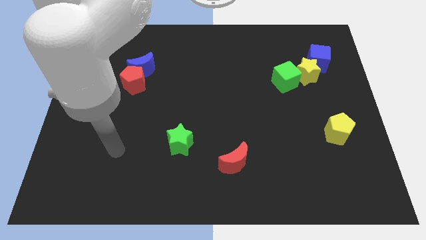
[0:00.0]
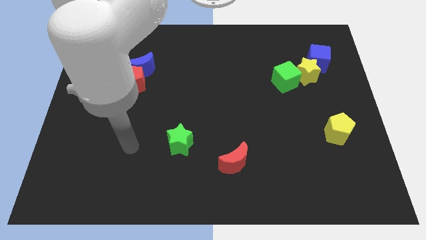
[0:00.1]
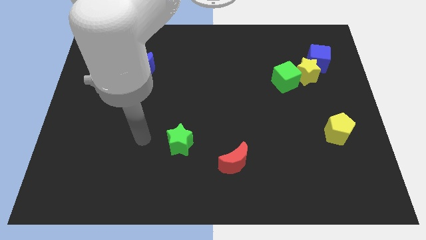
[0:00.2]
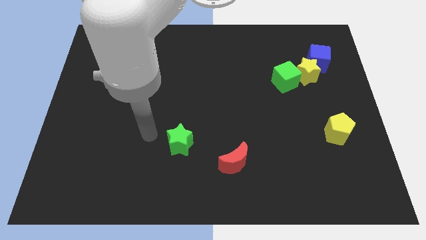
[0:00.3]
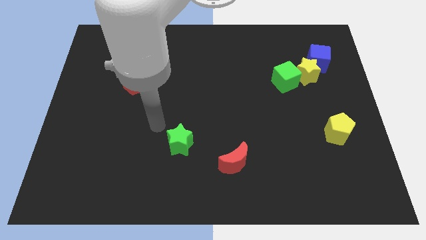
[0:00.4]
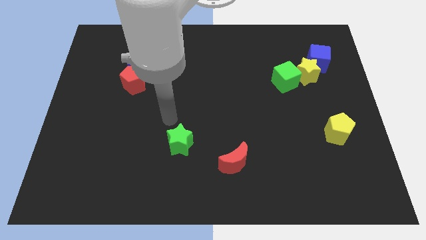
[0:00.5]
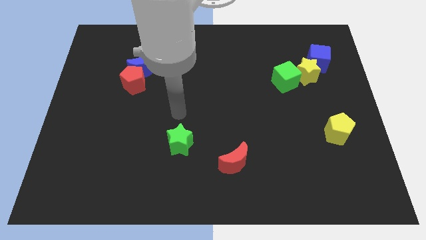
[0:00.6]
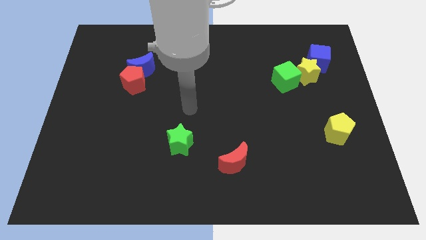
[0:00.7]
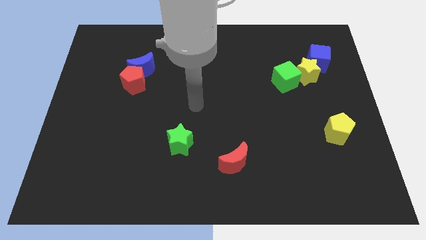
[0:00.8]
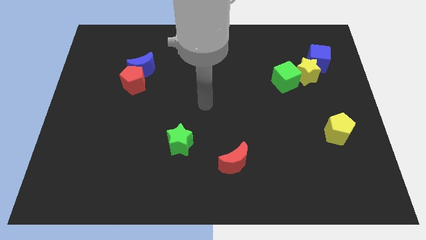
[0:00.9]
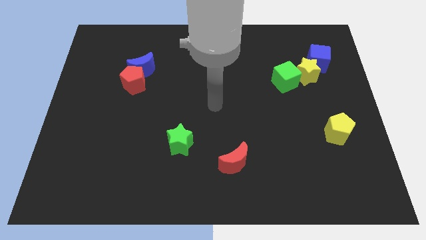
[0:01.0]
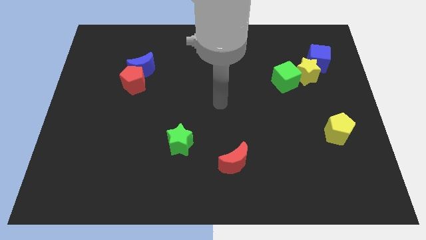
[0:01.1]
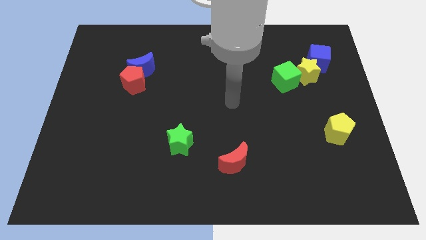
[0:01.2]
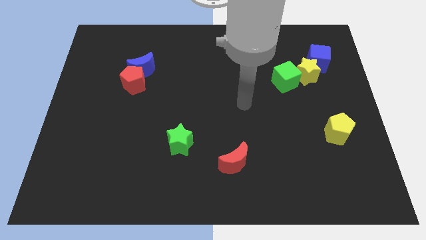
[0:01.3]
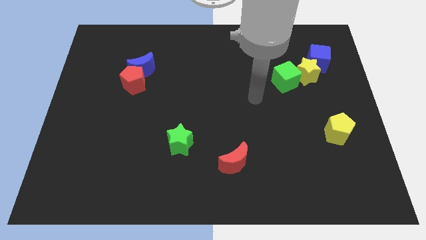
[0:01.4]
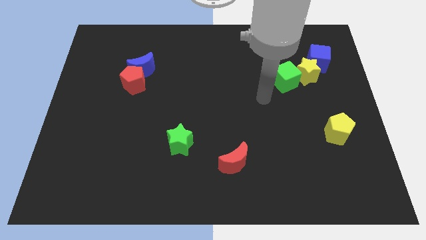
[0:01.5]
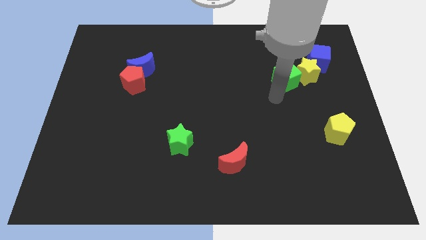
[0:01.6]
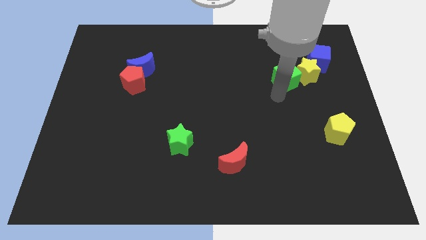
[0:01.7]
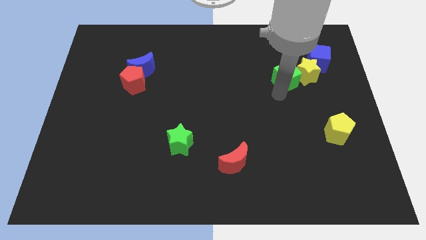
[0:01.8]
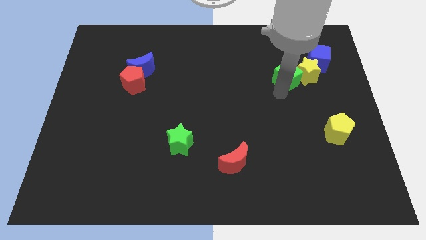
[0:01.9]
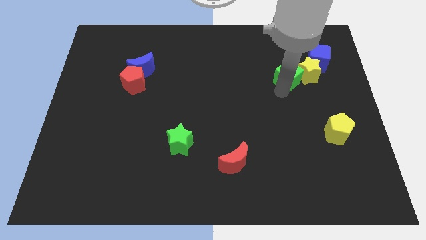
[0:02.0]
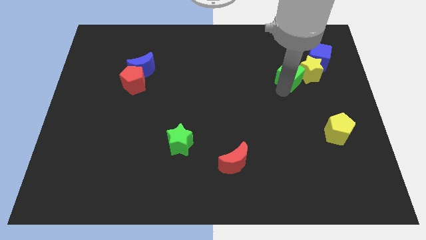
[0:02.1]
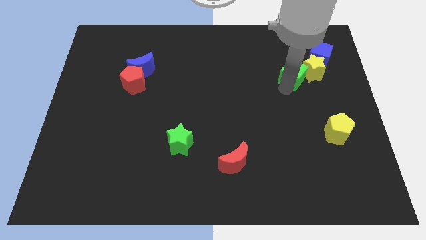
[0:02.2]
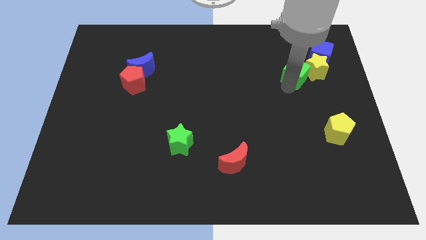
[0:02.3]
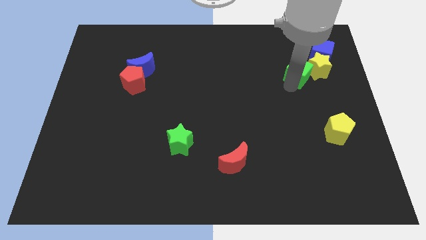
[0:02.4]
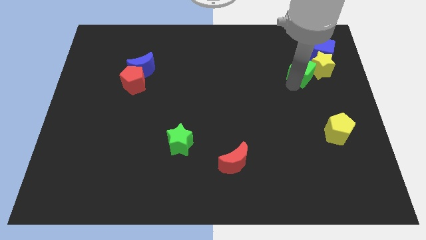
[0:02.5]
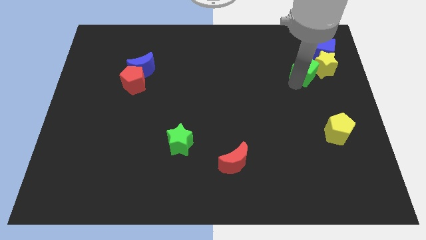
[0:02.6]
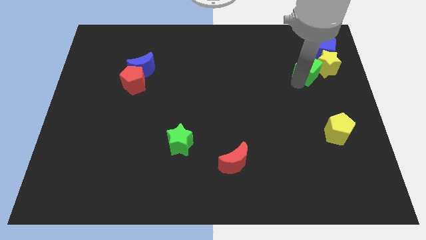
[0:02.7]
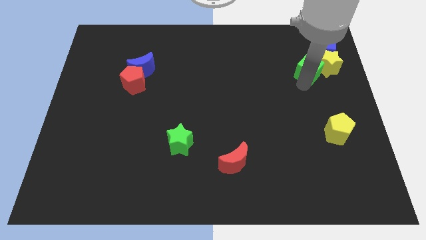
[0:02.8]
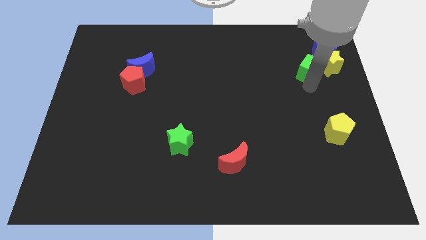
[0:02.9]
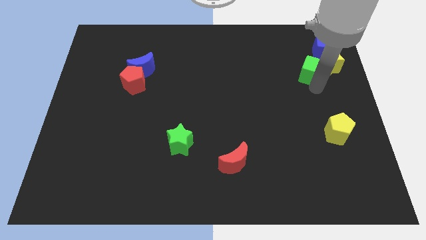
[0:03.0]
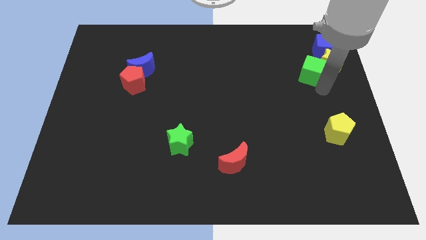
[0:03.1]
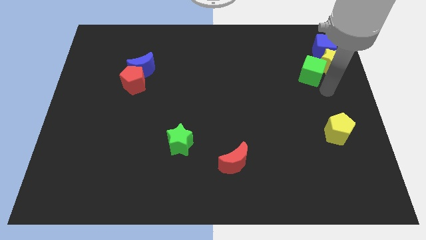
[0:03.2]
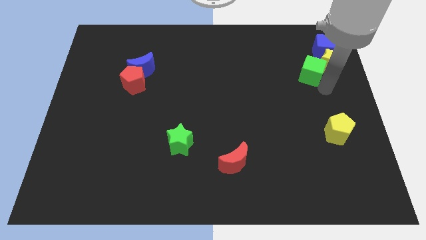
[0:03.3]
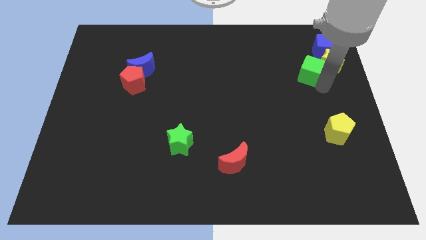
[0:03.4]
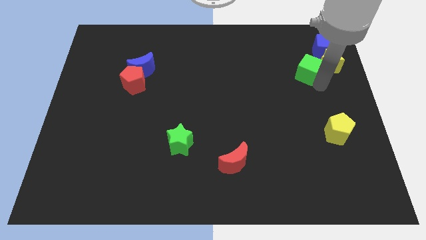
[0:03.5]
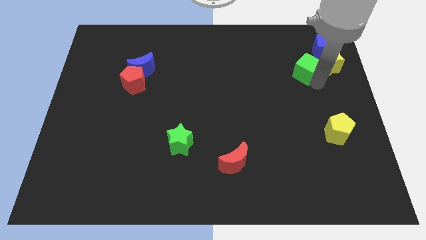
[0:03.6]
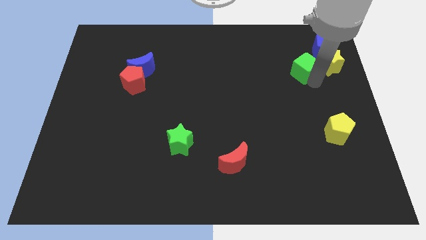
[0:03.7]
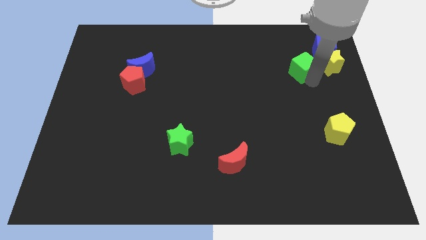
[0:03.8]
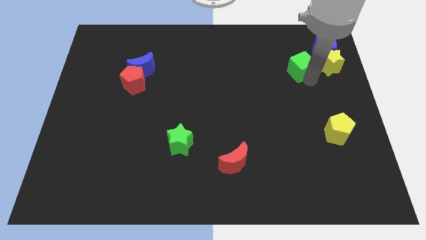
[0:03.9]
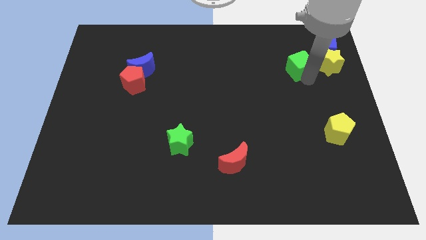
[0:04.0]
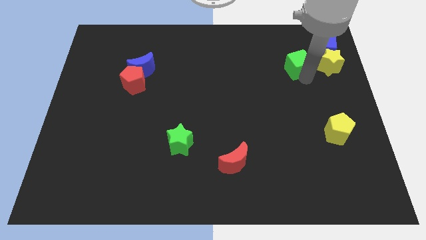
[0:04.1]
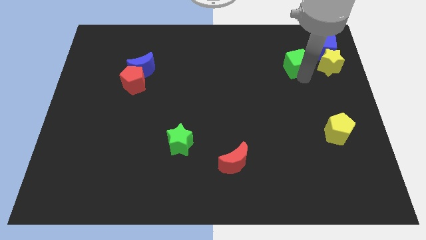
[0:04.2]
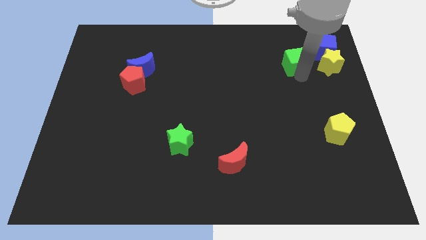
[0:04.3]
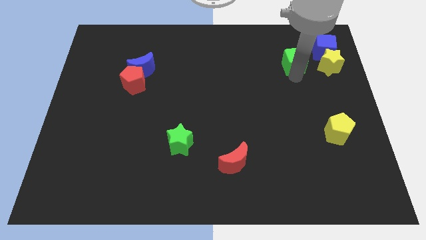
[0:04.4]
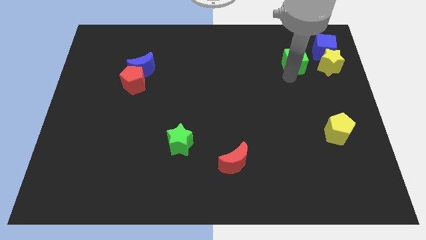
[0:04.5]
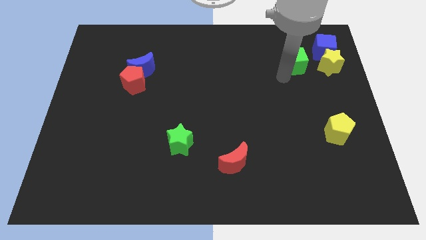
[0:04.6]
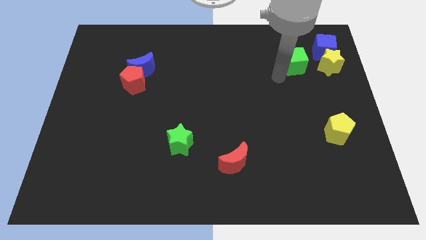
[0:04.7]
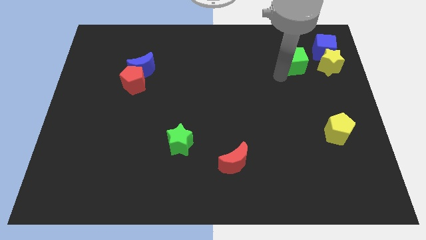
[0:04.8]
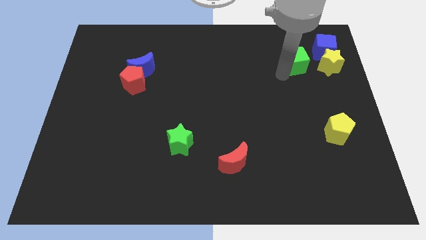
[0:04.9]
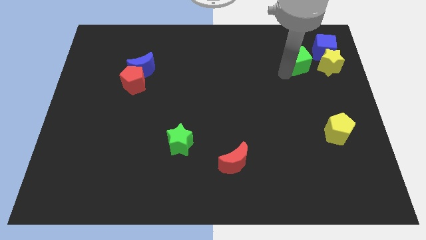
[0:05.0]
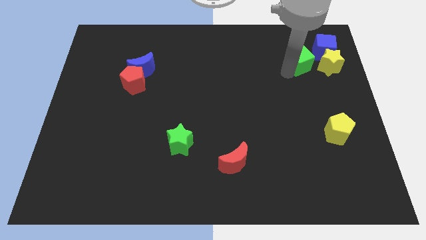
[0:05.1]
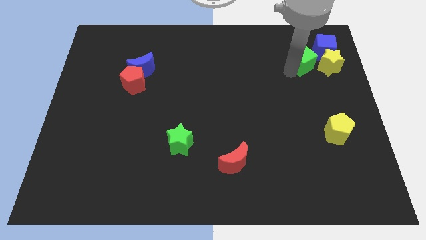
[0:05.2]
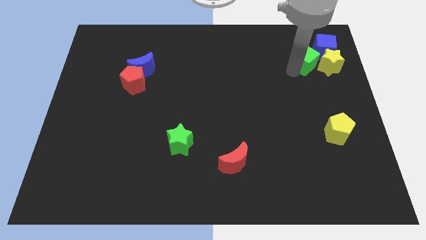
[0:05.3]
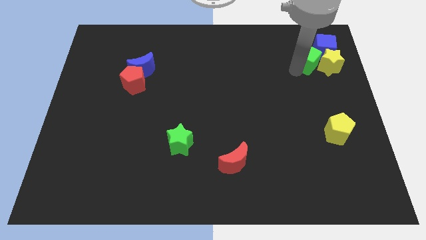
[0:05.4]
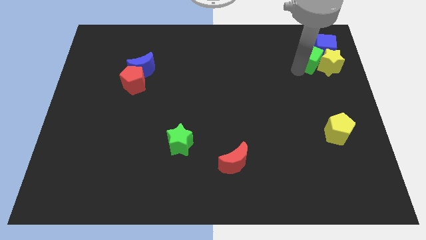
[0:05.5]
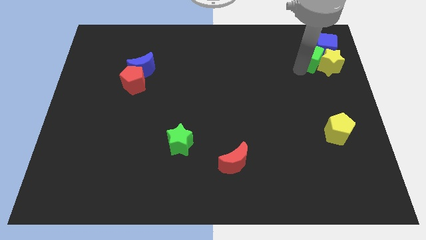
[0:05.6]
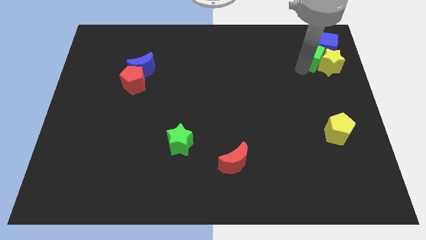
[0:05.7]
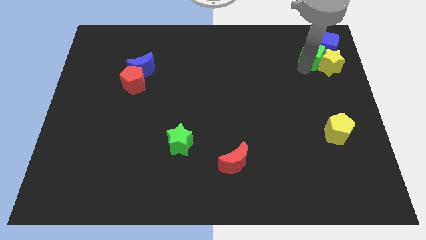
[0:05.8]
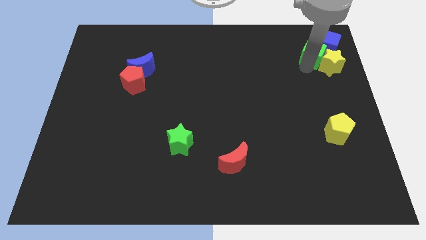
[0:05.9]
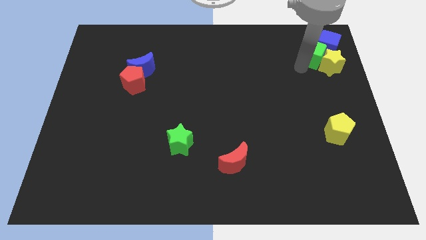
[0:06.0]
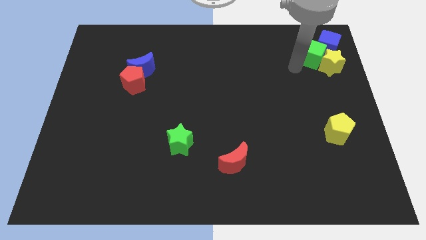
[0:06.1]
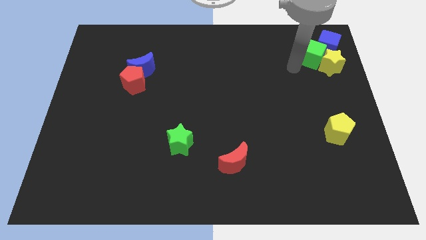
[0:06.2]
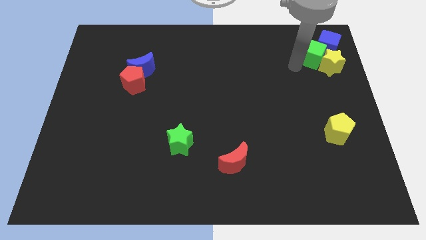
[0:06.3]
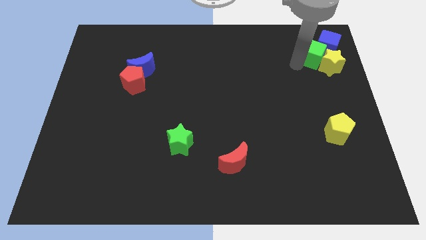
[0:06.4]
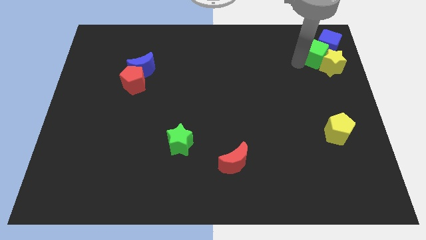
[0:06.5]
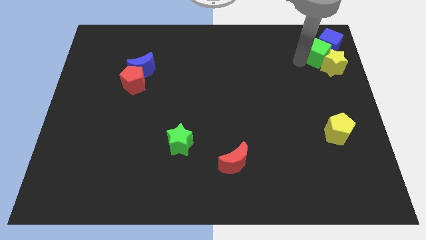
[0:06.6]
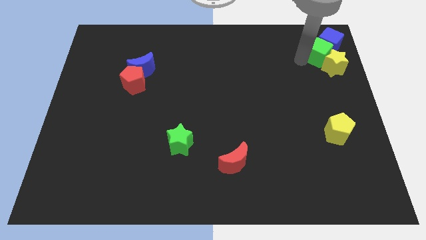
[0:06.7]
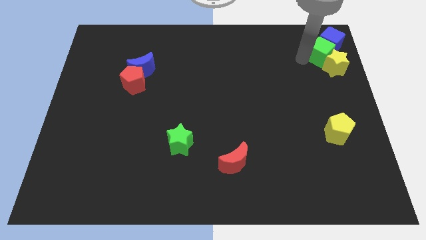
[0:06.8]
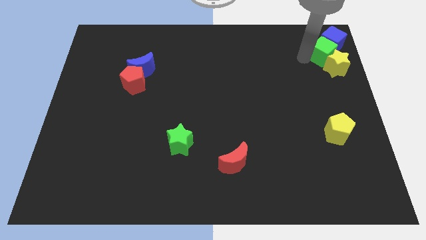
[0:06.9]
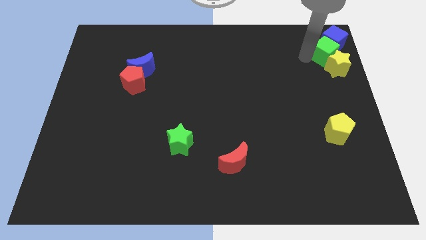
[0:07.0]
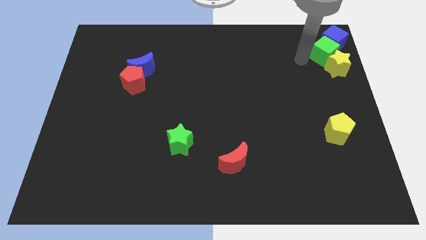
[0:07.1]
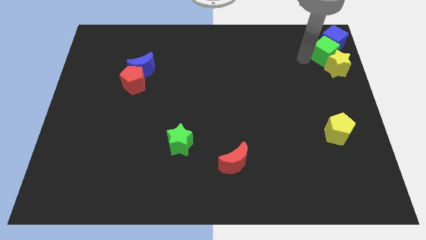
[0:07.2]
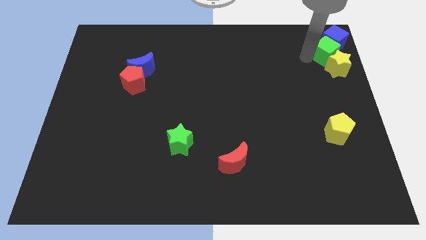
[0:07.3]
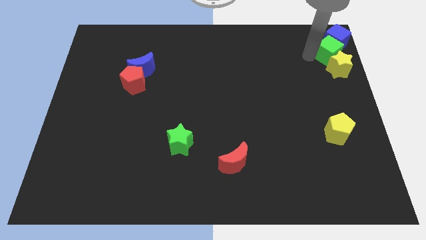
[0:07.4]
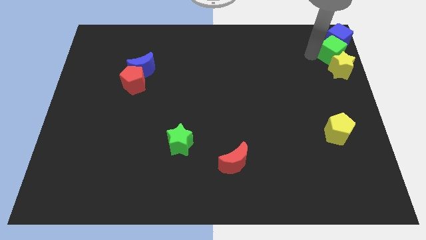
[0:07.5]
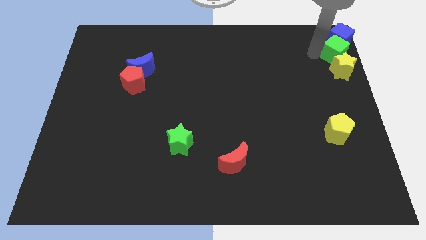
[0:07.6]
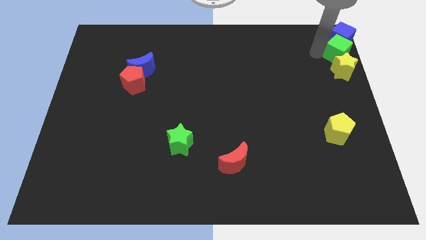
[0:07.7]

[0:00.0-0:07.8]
push the green cube to the top right
